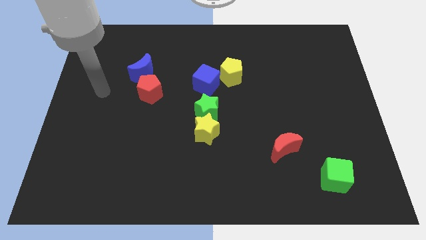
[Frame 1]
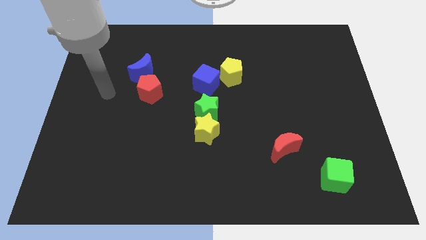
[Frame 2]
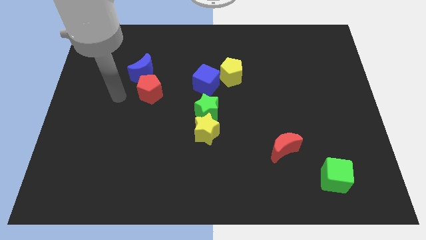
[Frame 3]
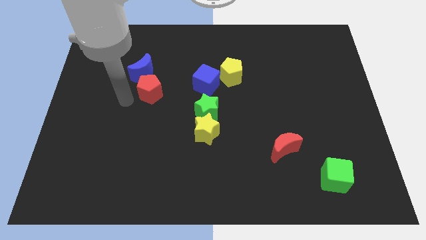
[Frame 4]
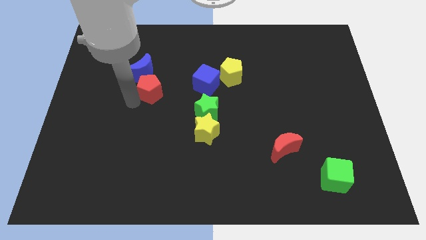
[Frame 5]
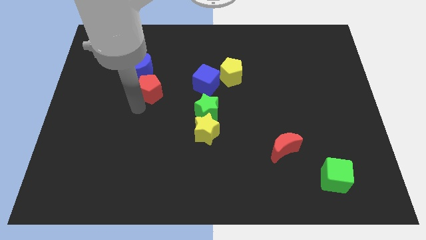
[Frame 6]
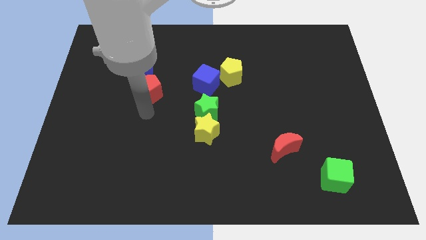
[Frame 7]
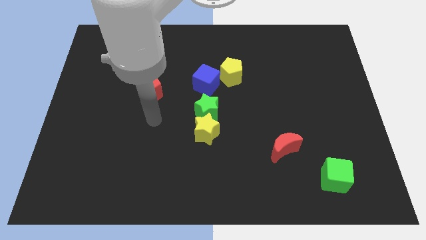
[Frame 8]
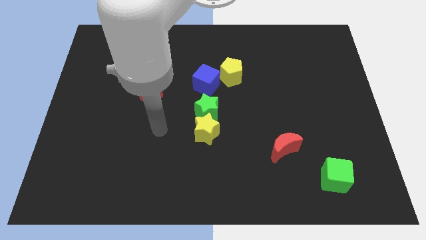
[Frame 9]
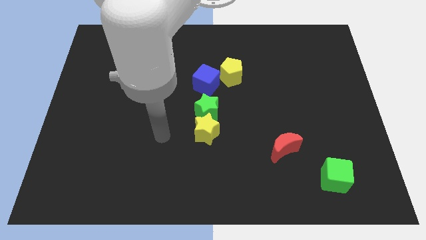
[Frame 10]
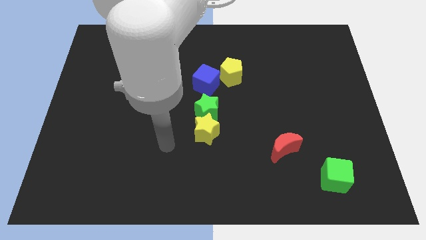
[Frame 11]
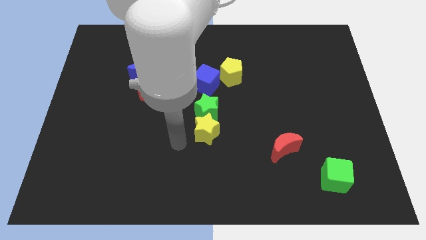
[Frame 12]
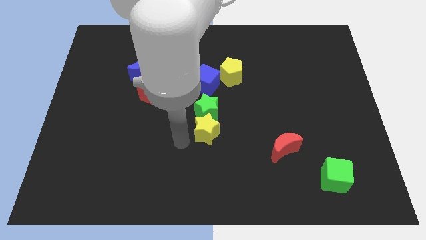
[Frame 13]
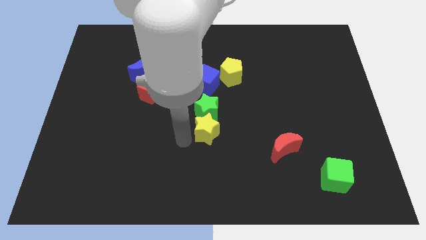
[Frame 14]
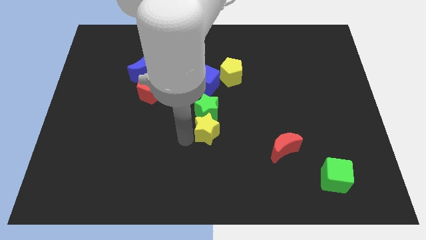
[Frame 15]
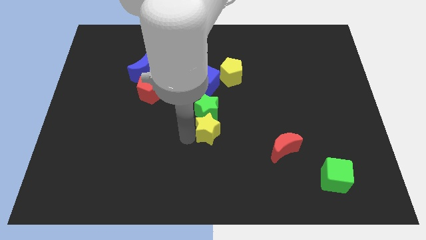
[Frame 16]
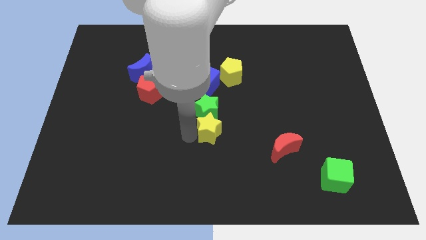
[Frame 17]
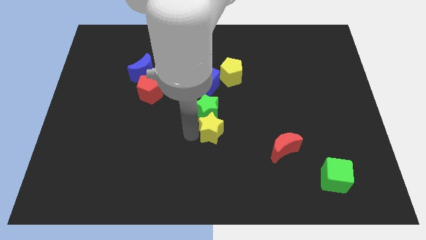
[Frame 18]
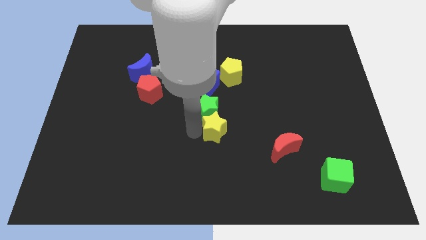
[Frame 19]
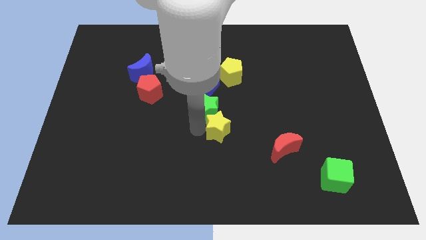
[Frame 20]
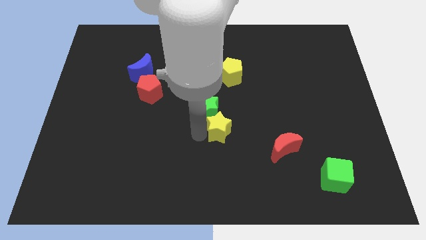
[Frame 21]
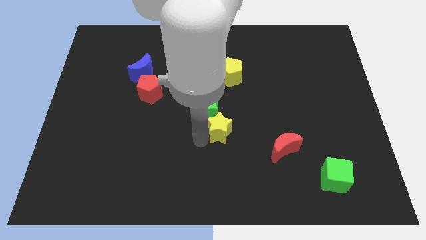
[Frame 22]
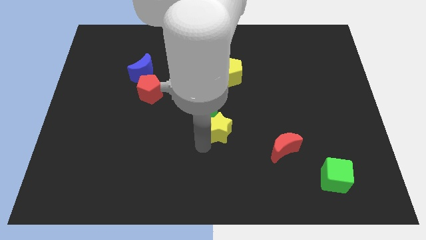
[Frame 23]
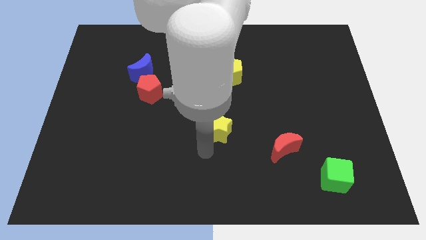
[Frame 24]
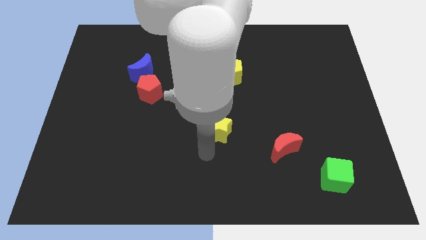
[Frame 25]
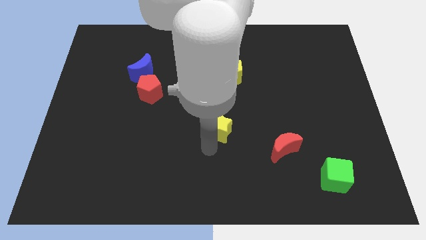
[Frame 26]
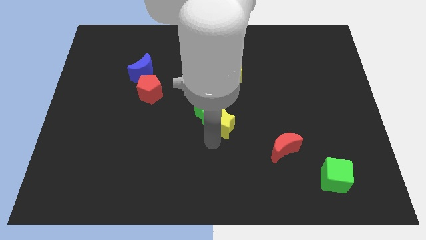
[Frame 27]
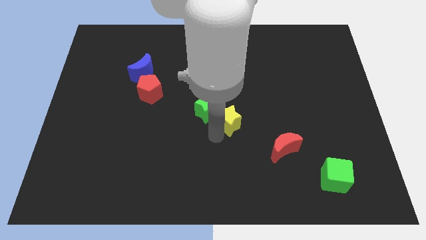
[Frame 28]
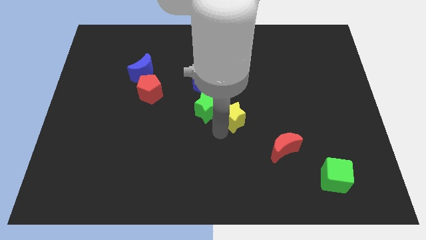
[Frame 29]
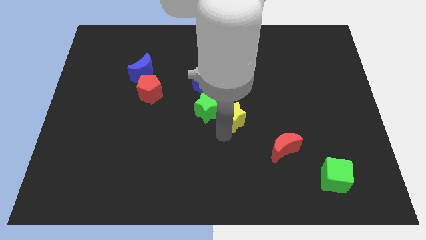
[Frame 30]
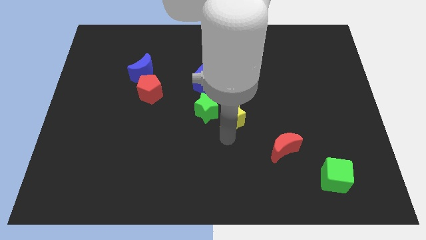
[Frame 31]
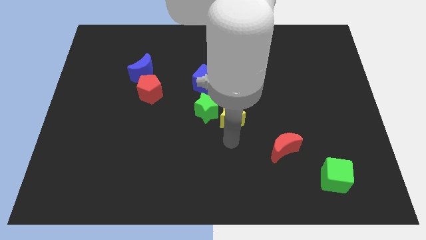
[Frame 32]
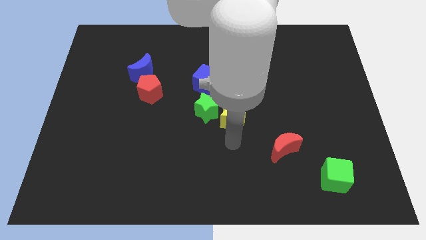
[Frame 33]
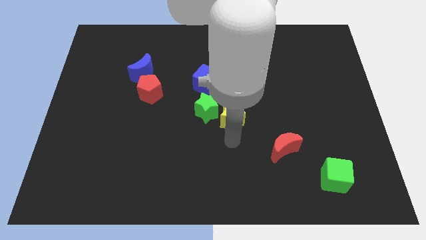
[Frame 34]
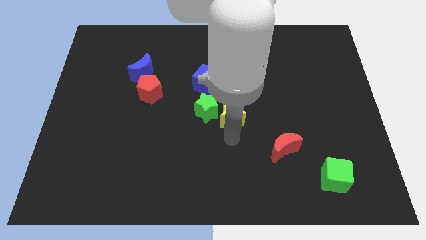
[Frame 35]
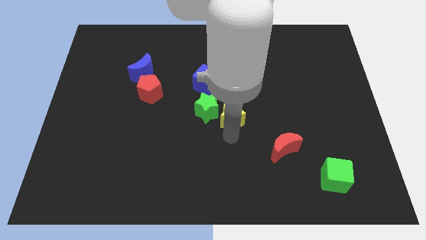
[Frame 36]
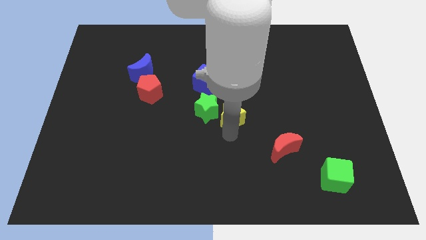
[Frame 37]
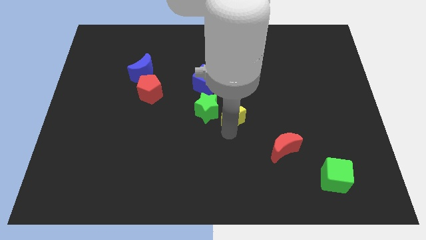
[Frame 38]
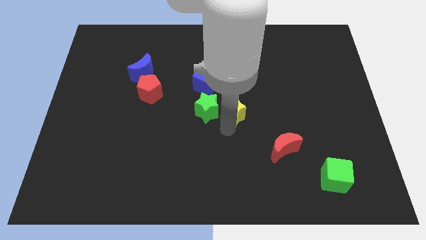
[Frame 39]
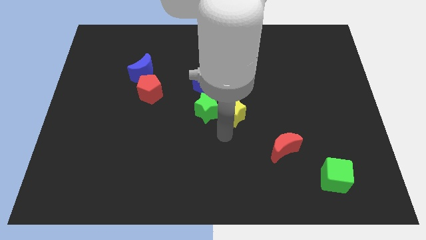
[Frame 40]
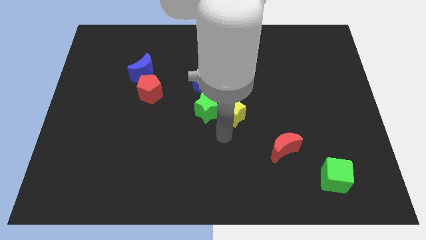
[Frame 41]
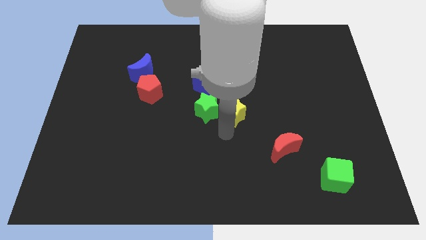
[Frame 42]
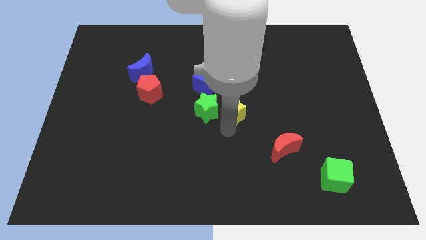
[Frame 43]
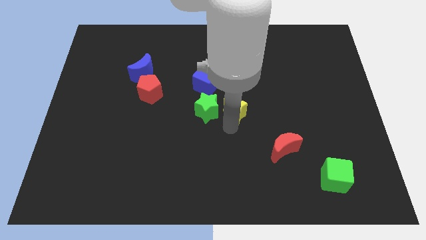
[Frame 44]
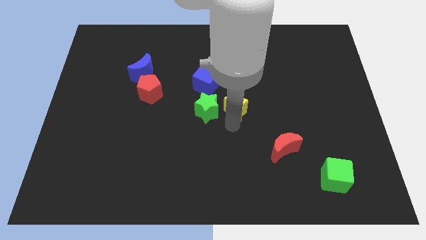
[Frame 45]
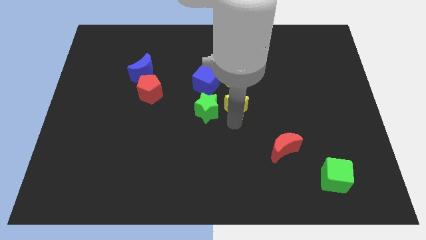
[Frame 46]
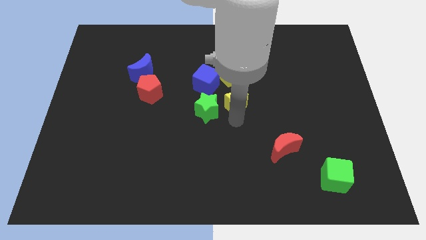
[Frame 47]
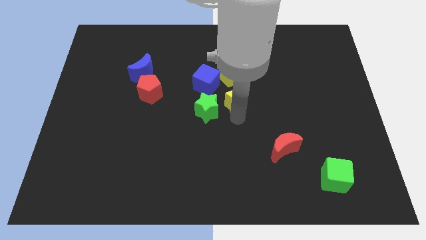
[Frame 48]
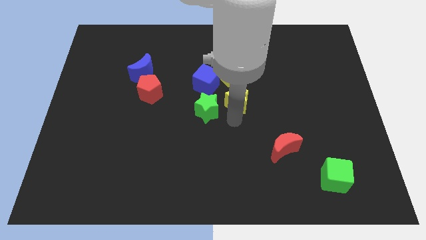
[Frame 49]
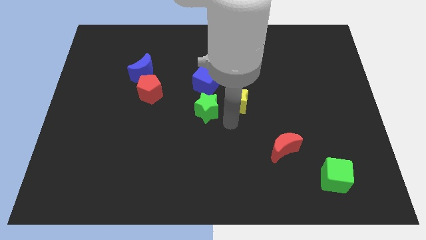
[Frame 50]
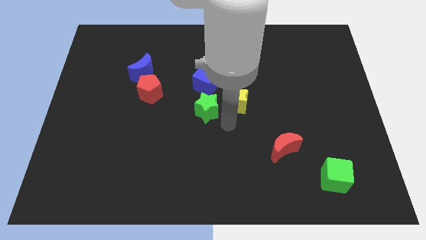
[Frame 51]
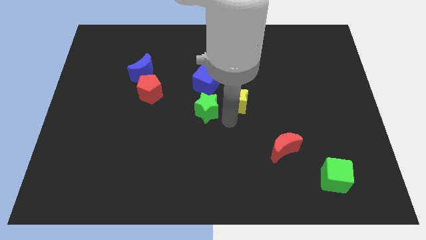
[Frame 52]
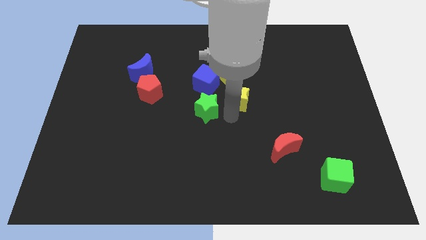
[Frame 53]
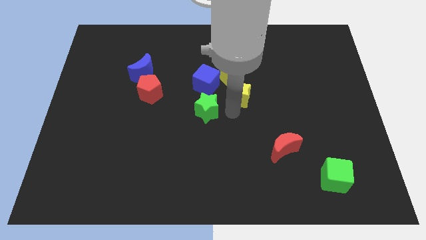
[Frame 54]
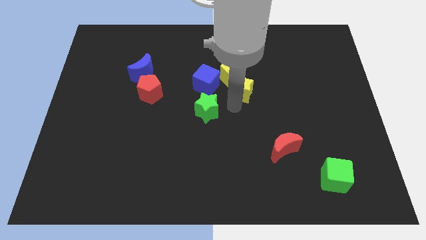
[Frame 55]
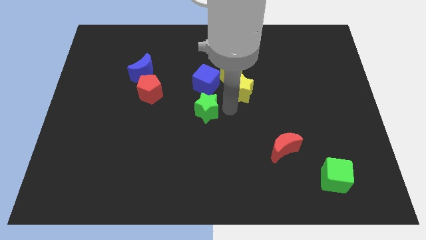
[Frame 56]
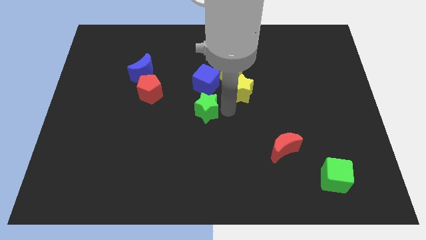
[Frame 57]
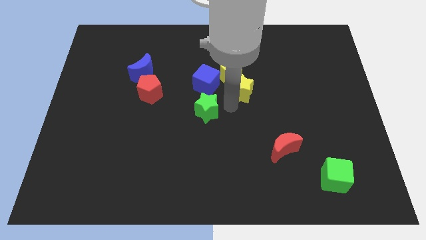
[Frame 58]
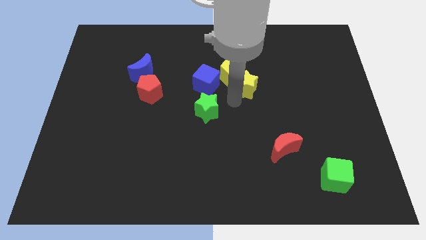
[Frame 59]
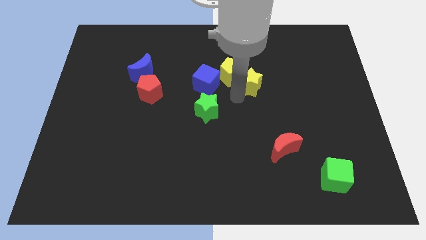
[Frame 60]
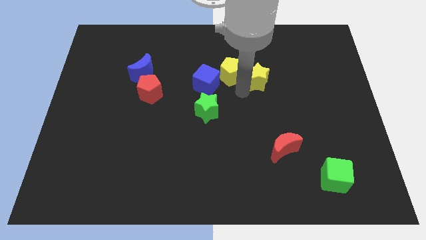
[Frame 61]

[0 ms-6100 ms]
slide the yellow star upwards and right

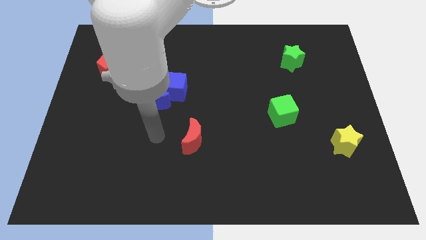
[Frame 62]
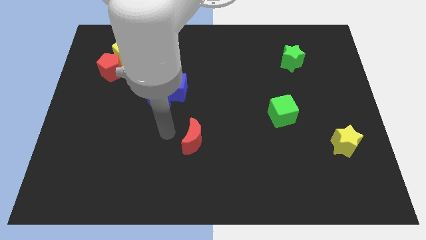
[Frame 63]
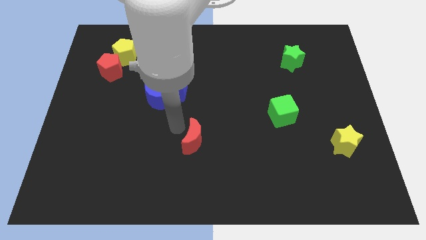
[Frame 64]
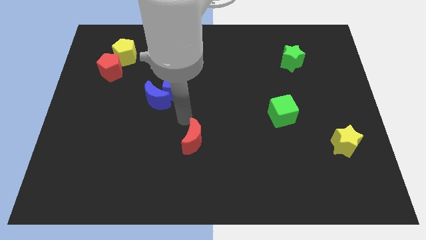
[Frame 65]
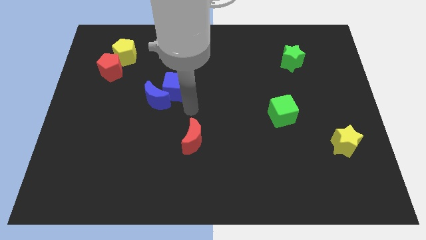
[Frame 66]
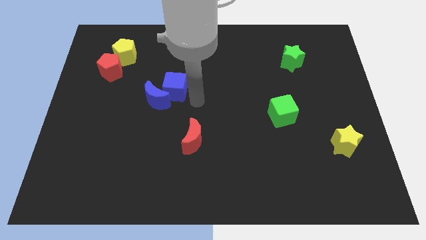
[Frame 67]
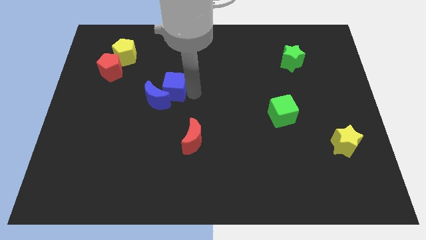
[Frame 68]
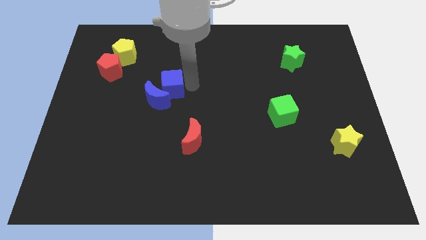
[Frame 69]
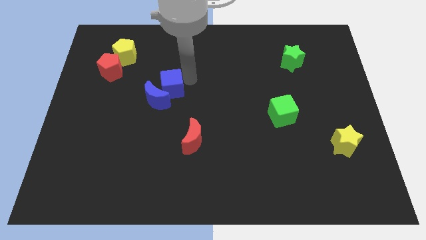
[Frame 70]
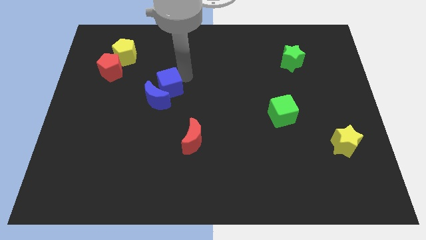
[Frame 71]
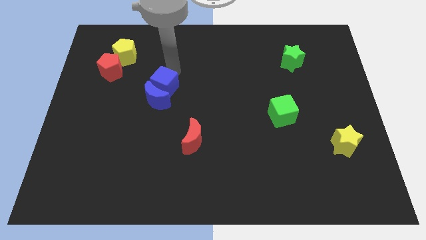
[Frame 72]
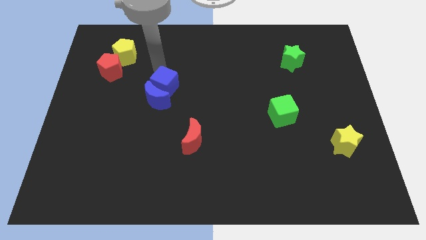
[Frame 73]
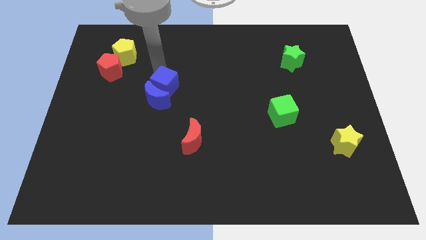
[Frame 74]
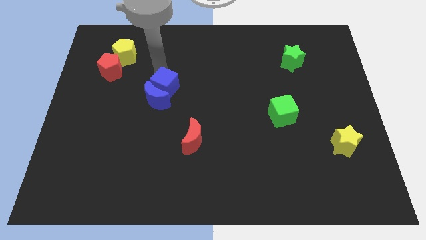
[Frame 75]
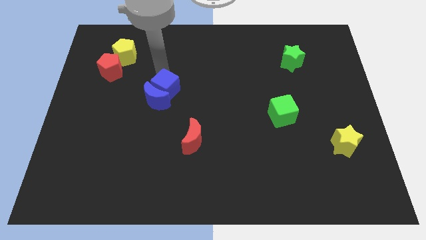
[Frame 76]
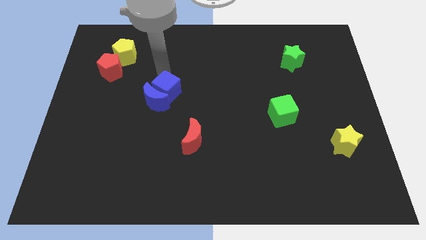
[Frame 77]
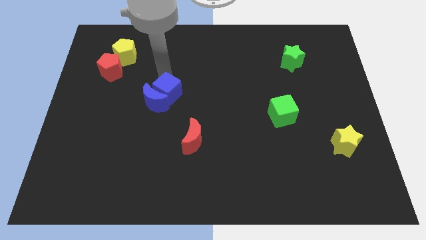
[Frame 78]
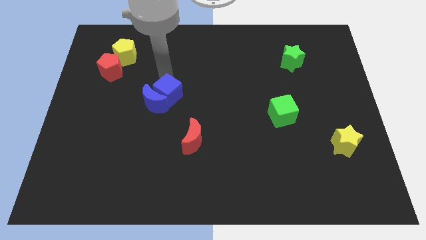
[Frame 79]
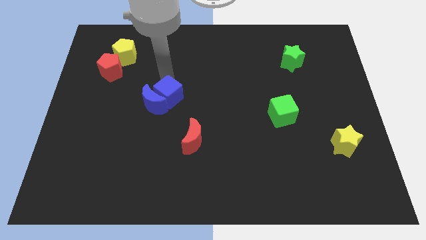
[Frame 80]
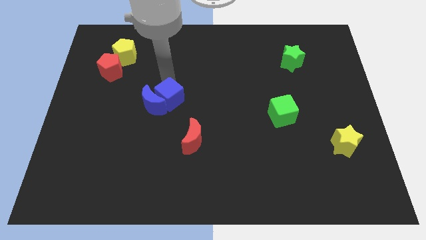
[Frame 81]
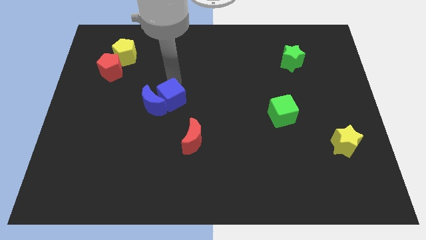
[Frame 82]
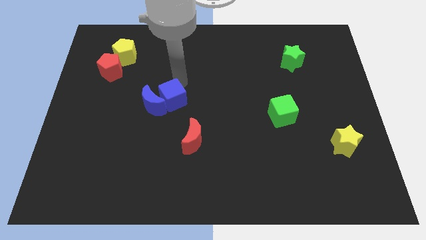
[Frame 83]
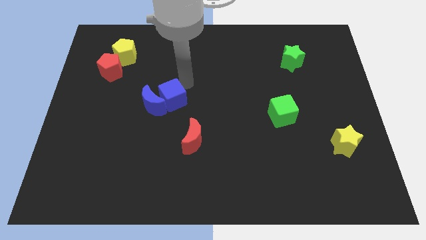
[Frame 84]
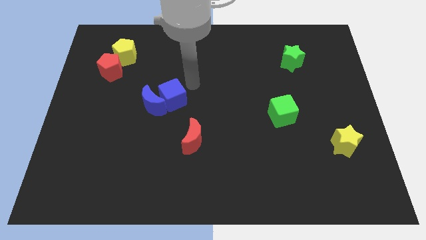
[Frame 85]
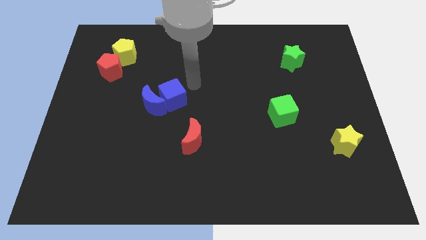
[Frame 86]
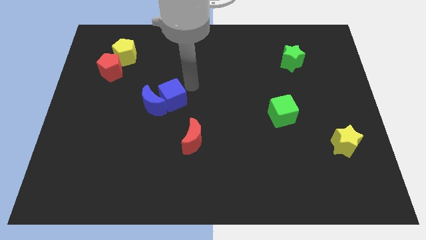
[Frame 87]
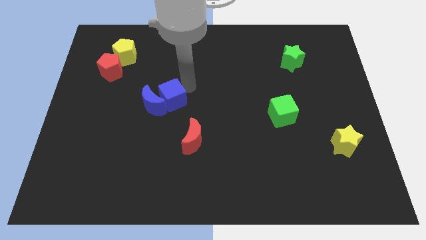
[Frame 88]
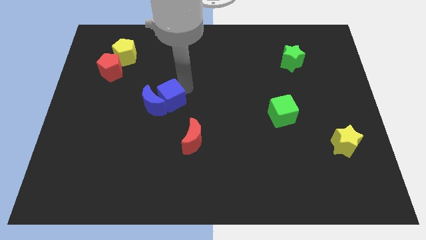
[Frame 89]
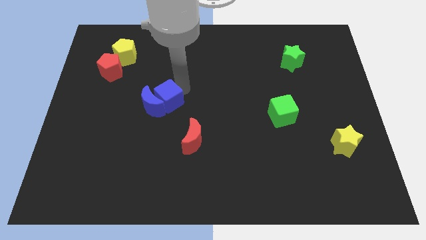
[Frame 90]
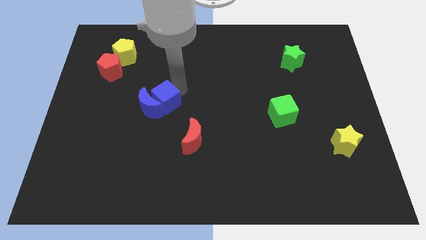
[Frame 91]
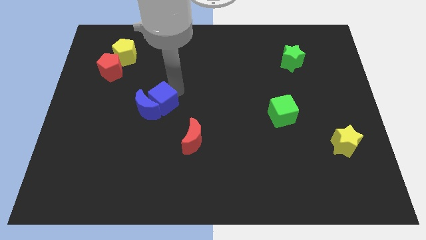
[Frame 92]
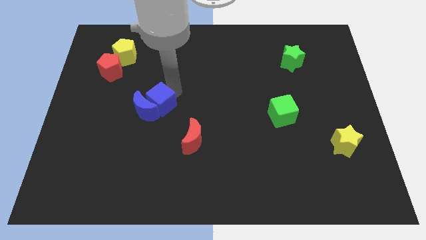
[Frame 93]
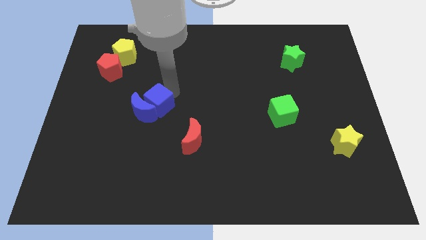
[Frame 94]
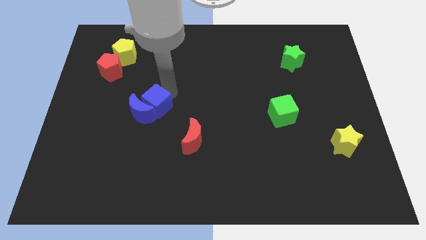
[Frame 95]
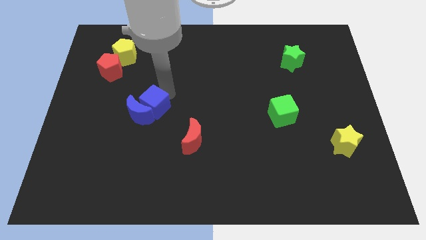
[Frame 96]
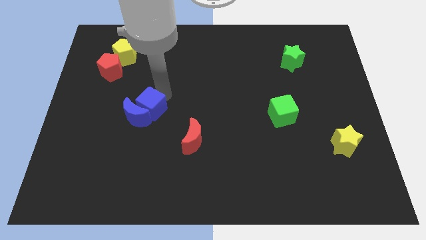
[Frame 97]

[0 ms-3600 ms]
slide the blue cube somewhat down and to the left
